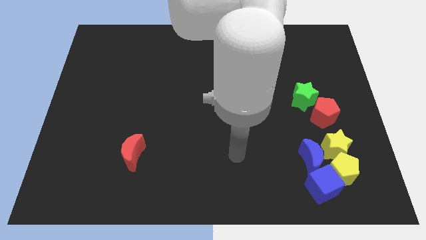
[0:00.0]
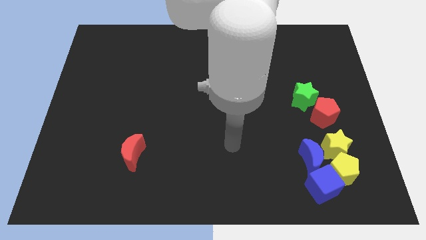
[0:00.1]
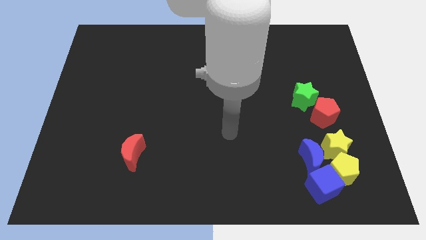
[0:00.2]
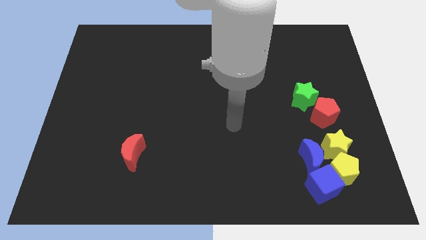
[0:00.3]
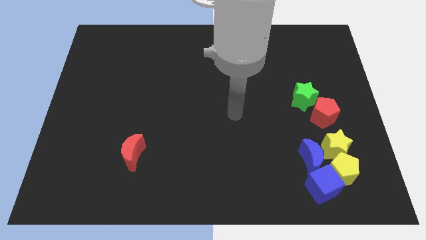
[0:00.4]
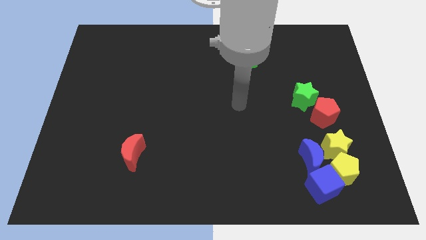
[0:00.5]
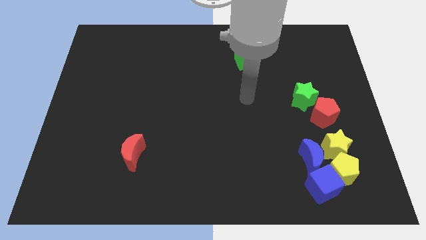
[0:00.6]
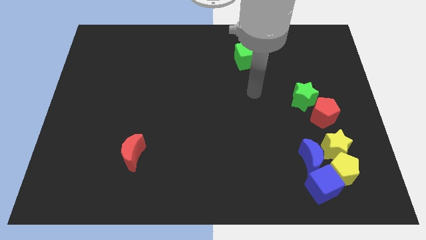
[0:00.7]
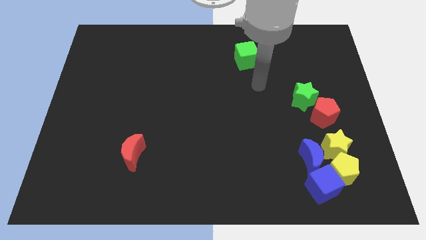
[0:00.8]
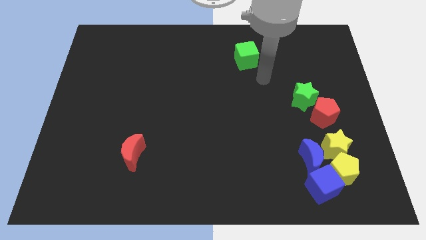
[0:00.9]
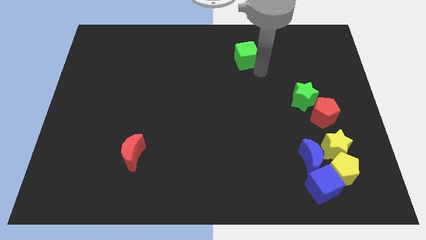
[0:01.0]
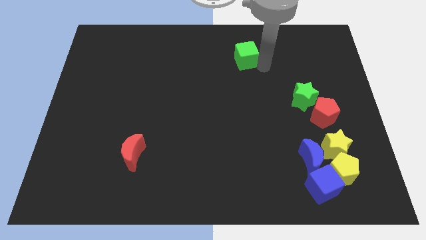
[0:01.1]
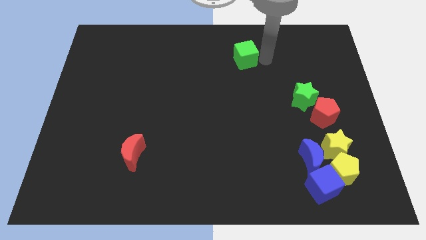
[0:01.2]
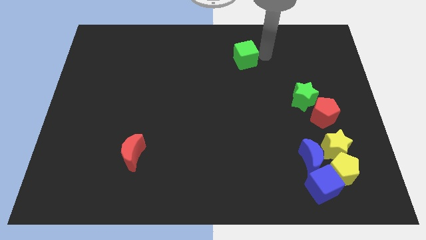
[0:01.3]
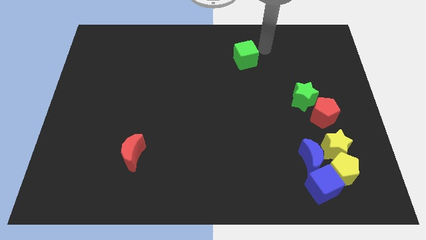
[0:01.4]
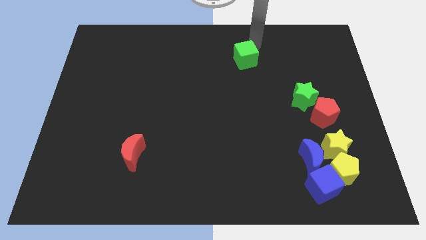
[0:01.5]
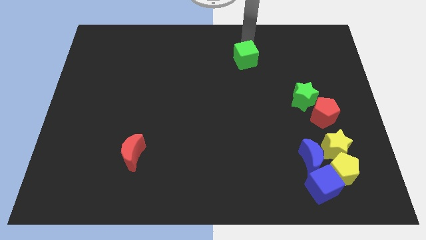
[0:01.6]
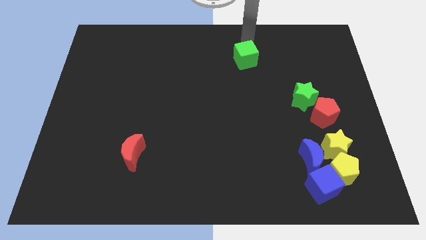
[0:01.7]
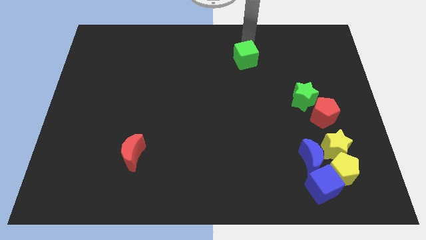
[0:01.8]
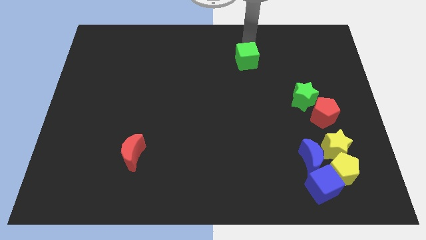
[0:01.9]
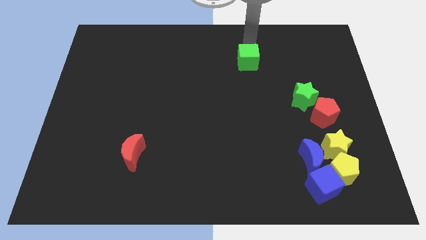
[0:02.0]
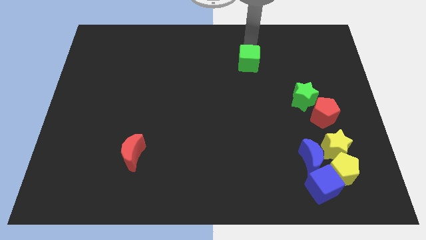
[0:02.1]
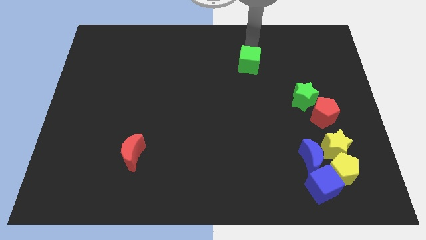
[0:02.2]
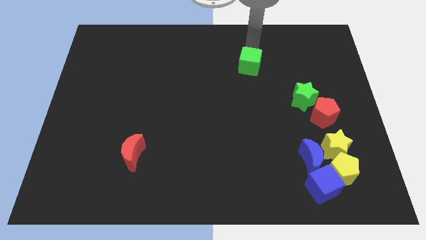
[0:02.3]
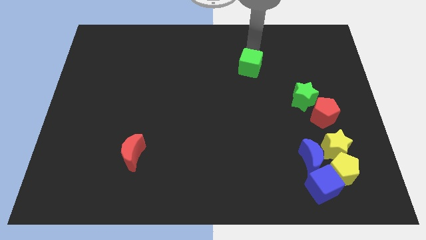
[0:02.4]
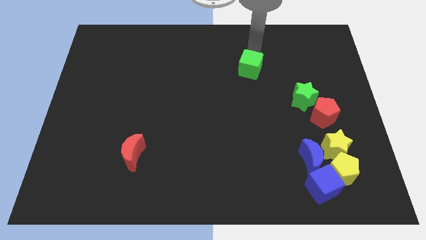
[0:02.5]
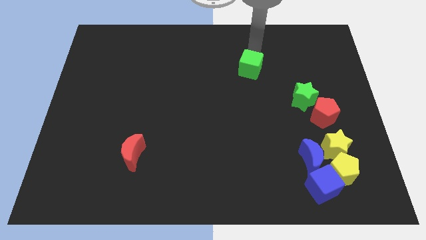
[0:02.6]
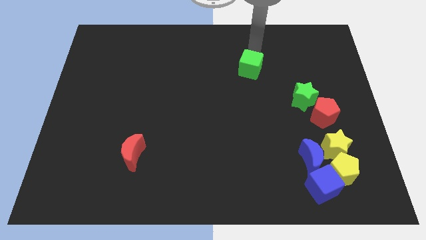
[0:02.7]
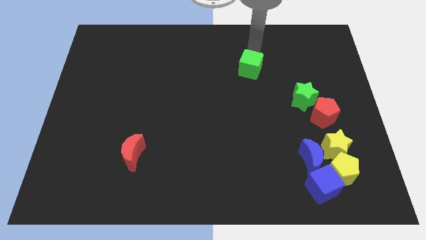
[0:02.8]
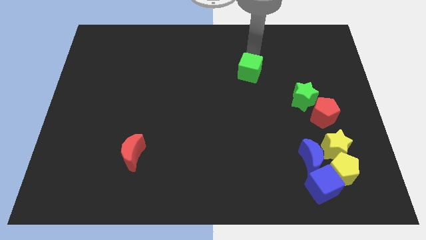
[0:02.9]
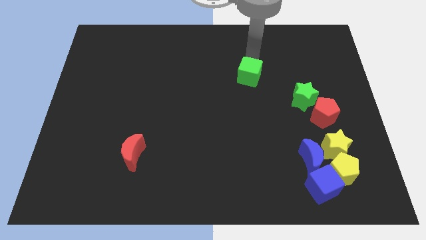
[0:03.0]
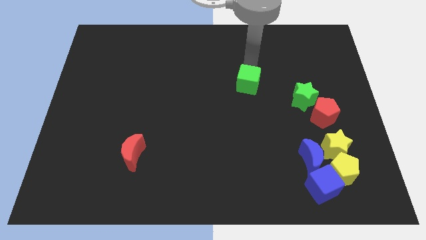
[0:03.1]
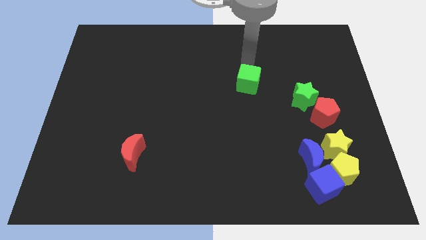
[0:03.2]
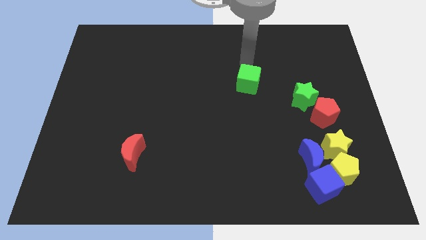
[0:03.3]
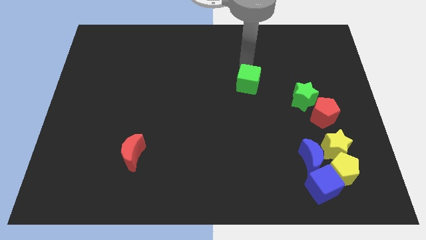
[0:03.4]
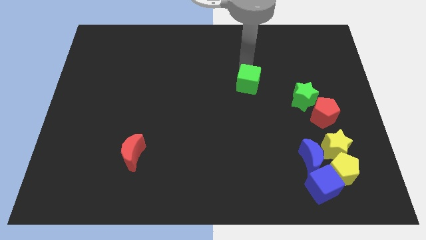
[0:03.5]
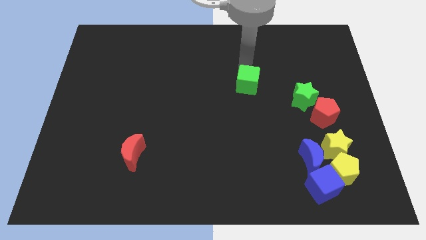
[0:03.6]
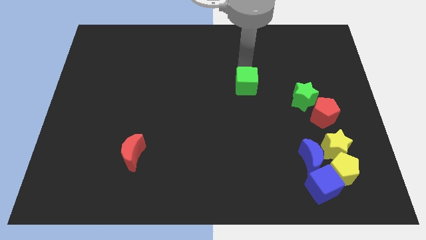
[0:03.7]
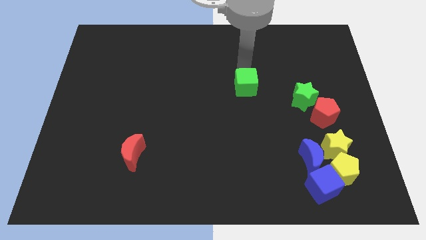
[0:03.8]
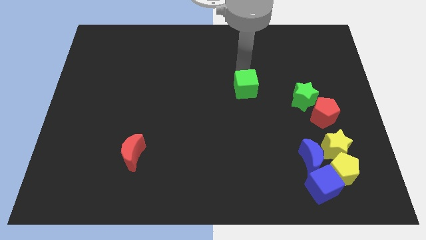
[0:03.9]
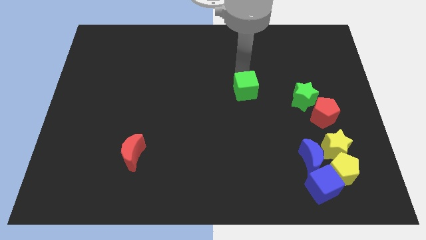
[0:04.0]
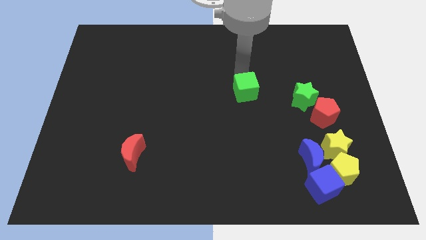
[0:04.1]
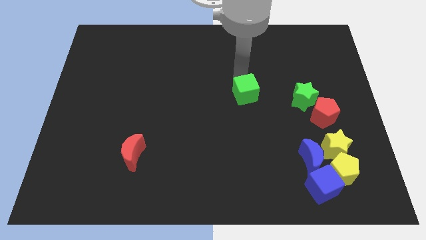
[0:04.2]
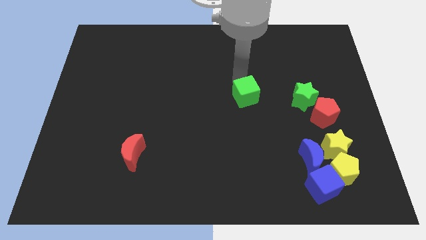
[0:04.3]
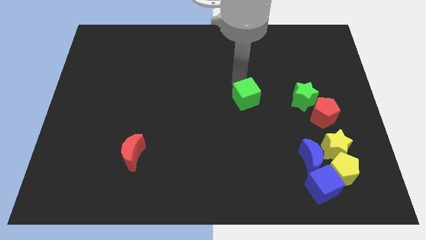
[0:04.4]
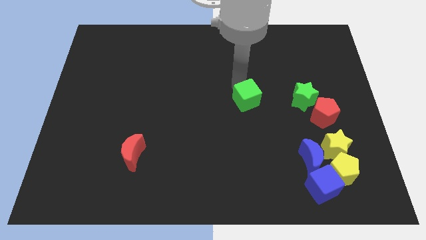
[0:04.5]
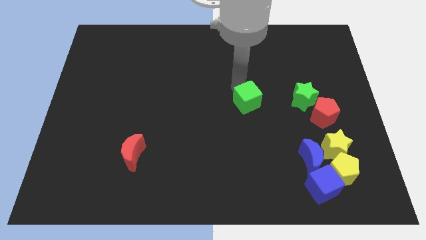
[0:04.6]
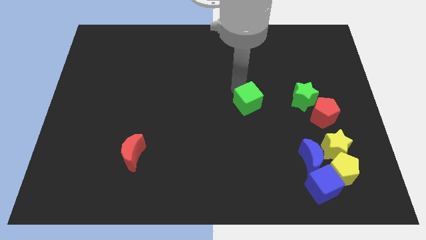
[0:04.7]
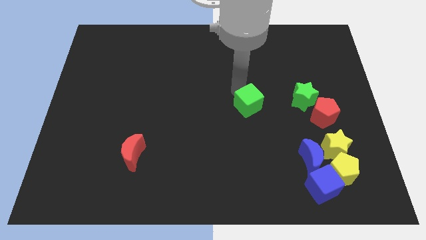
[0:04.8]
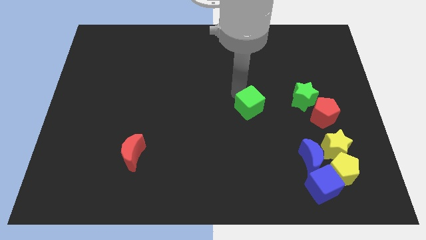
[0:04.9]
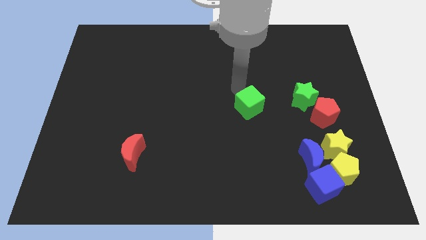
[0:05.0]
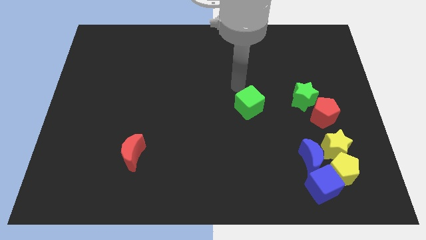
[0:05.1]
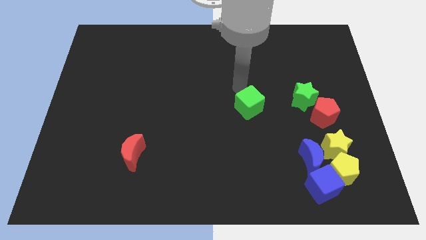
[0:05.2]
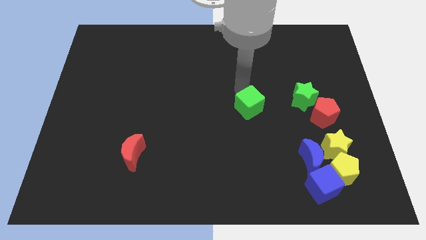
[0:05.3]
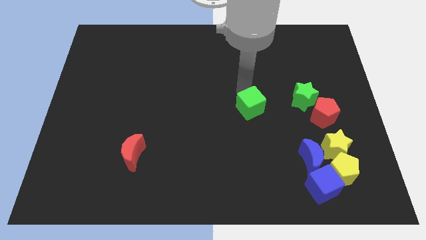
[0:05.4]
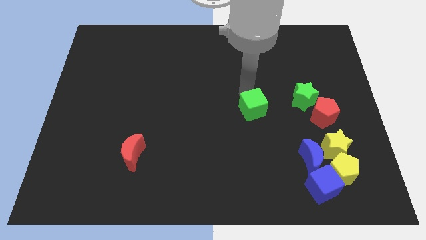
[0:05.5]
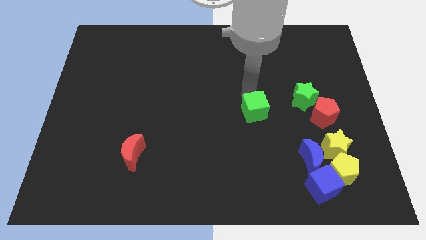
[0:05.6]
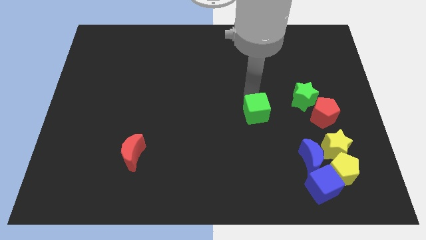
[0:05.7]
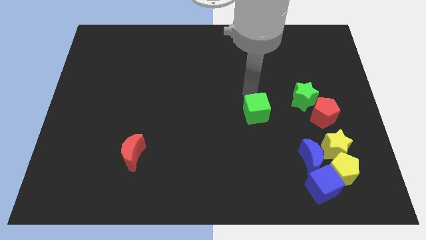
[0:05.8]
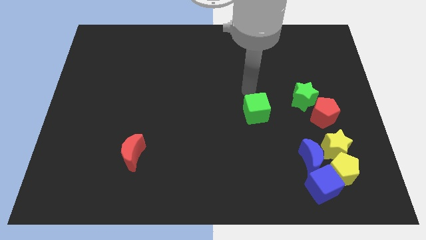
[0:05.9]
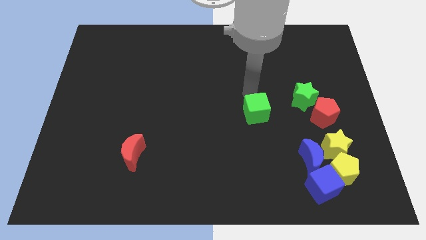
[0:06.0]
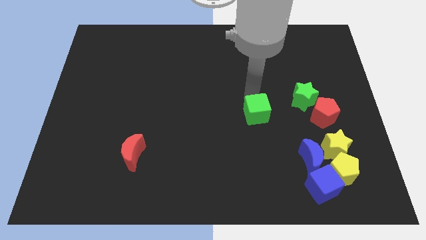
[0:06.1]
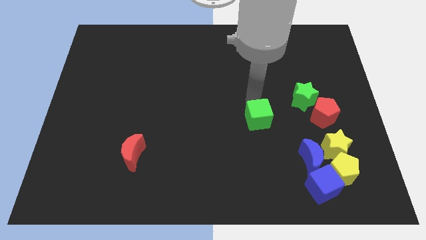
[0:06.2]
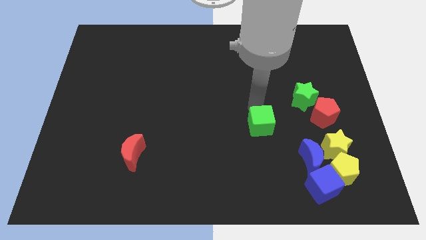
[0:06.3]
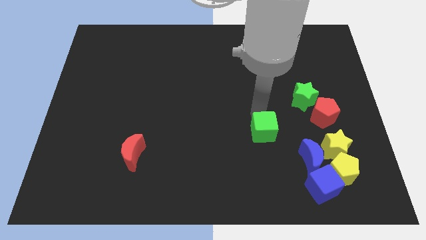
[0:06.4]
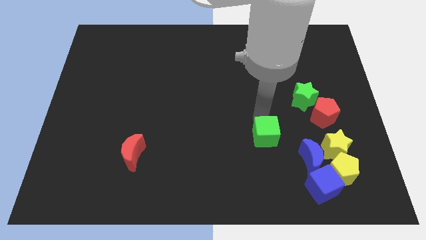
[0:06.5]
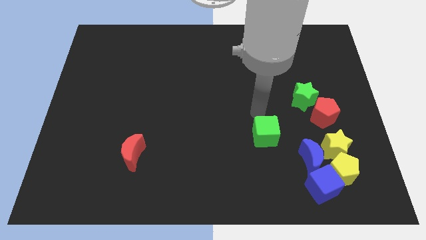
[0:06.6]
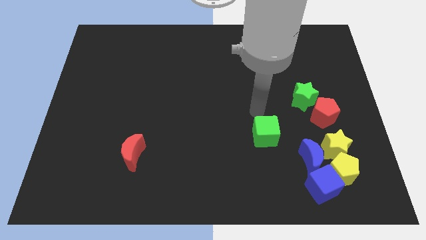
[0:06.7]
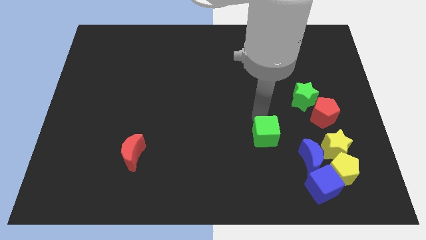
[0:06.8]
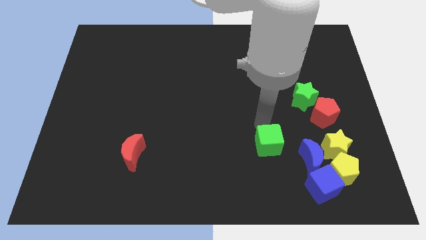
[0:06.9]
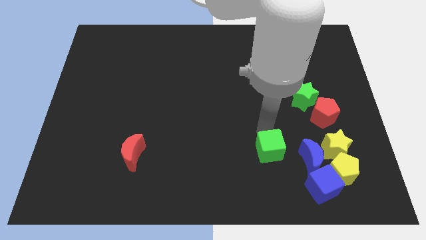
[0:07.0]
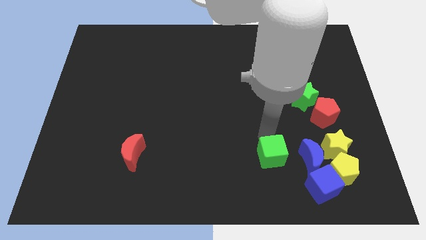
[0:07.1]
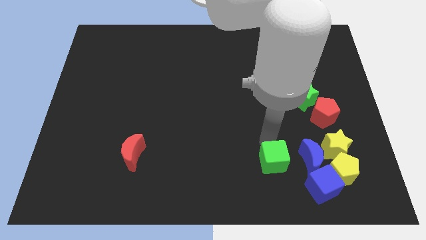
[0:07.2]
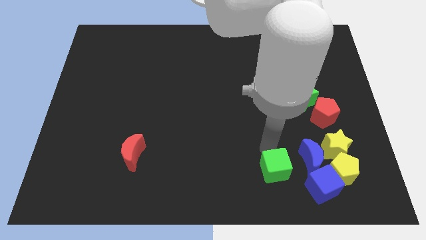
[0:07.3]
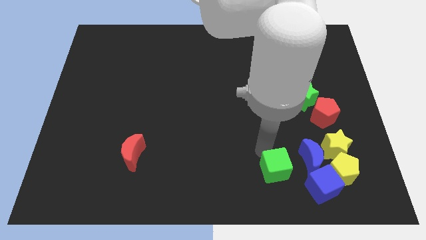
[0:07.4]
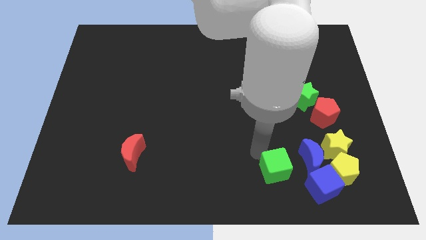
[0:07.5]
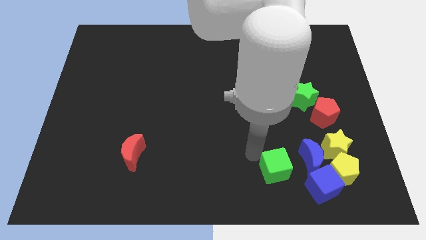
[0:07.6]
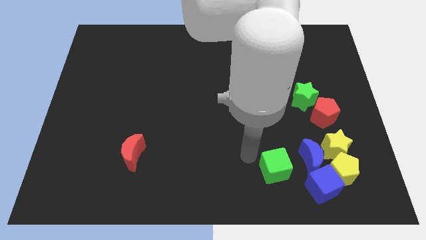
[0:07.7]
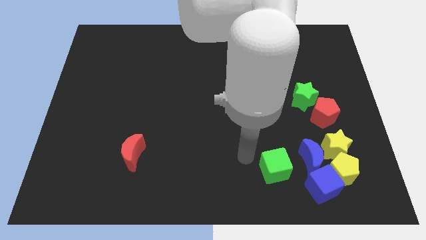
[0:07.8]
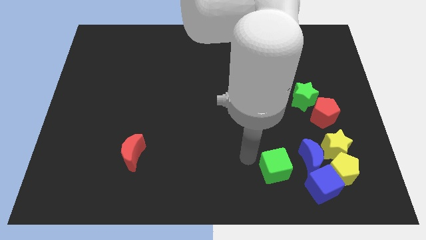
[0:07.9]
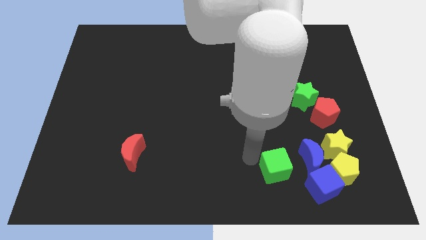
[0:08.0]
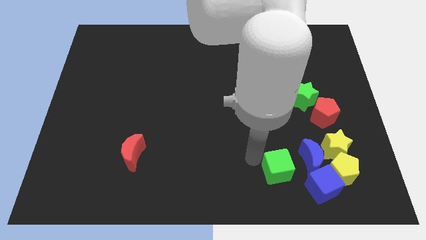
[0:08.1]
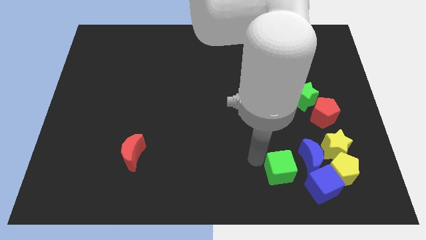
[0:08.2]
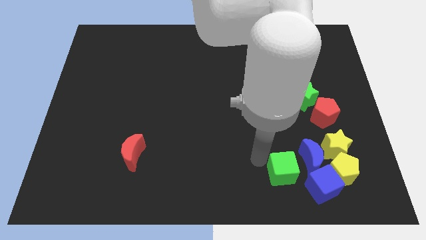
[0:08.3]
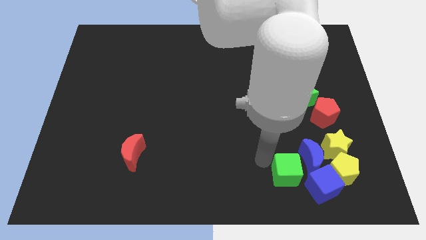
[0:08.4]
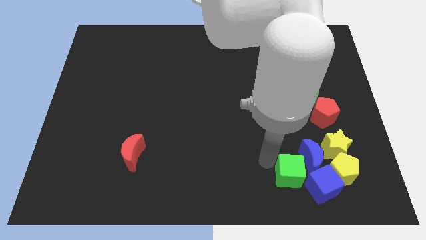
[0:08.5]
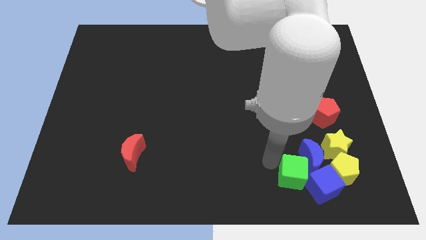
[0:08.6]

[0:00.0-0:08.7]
slide the green cube next to the blue cube
